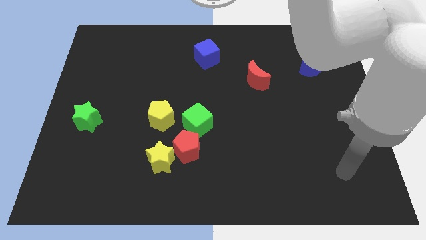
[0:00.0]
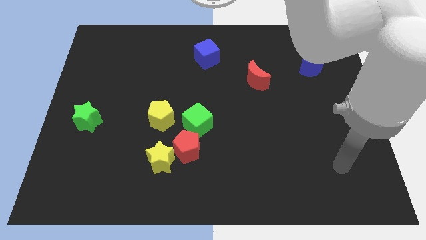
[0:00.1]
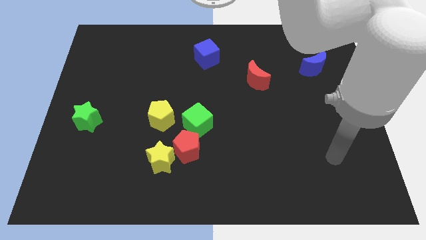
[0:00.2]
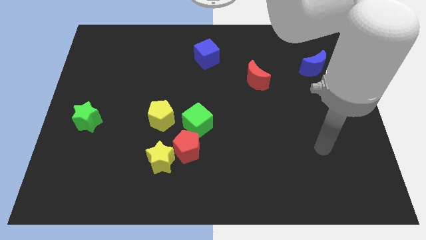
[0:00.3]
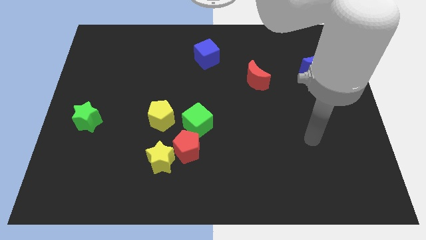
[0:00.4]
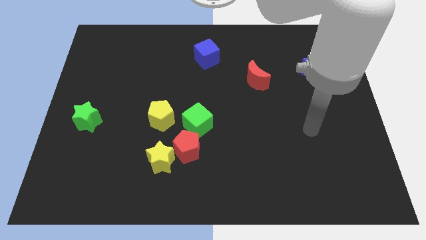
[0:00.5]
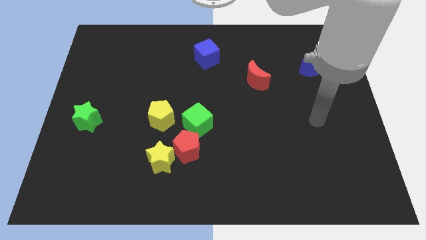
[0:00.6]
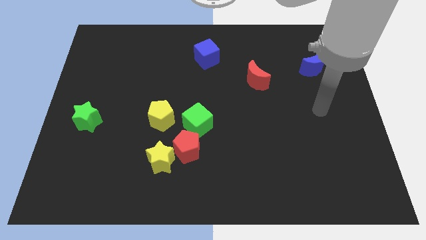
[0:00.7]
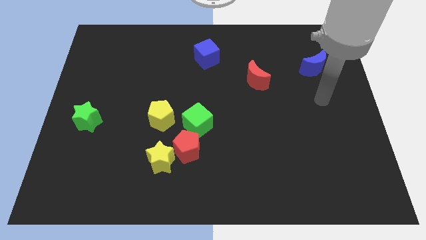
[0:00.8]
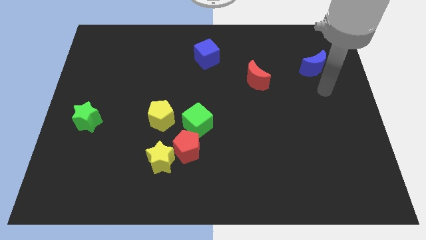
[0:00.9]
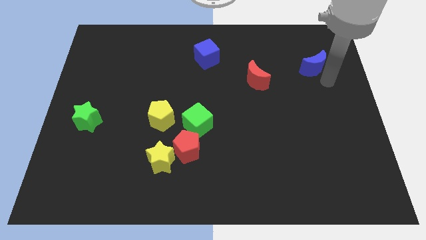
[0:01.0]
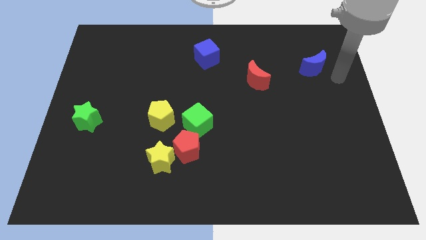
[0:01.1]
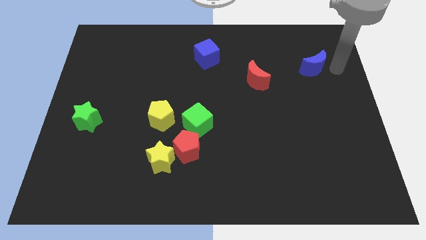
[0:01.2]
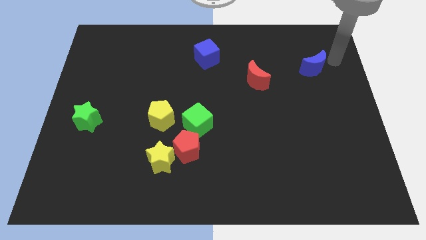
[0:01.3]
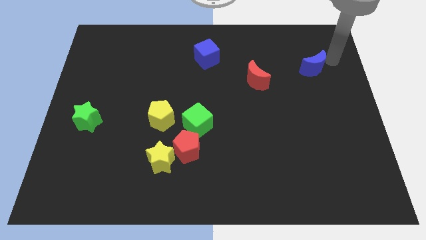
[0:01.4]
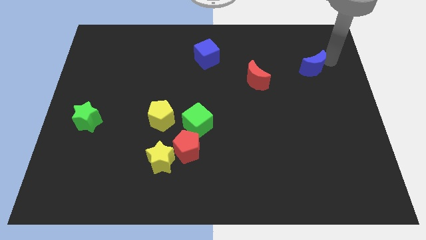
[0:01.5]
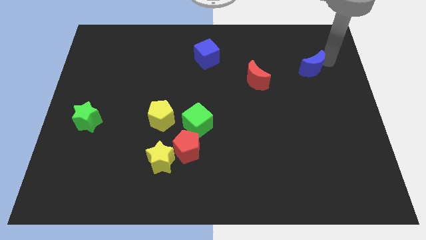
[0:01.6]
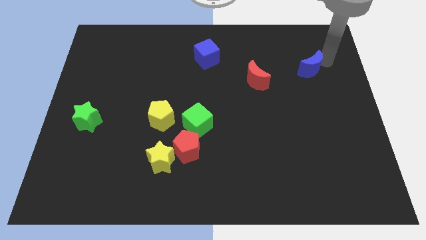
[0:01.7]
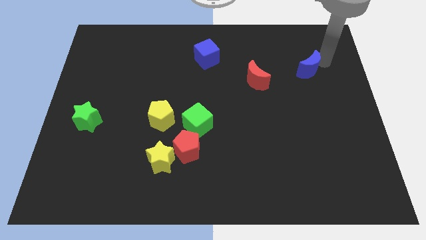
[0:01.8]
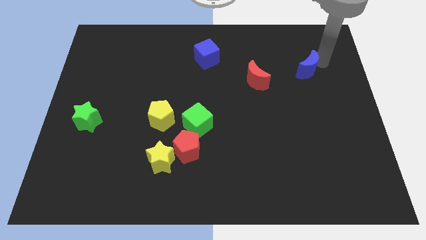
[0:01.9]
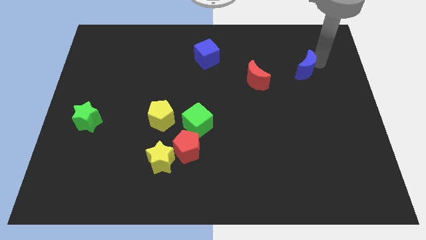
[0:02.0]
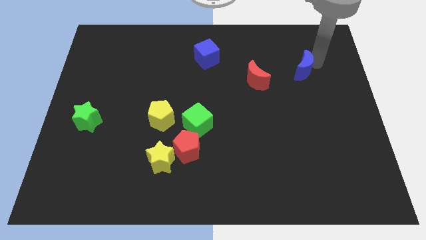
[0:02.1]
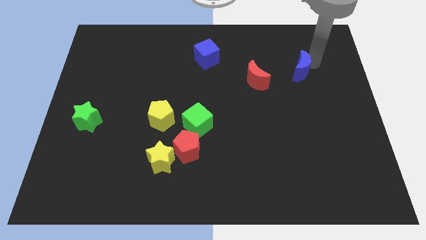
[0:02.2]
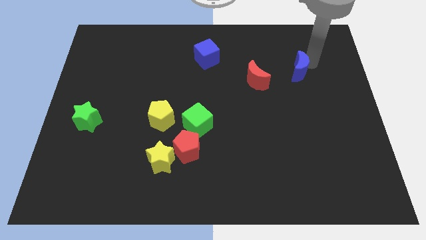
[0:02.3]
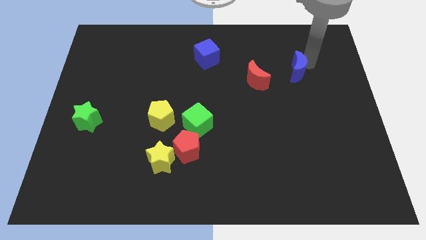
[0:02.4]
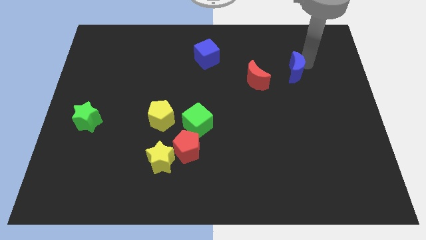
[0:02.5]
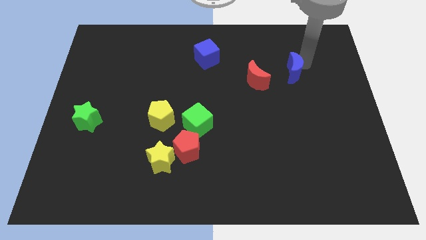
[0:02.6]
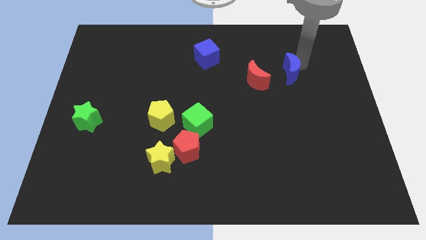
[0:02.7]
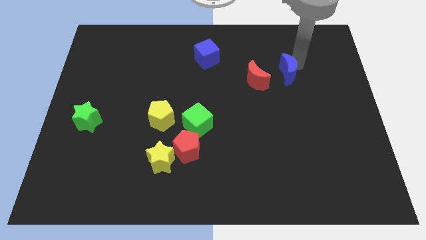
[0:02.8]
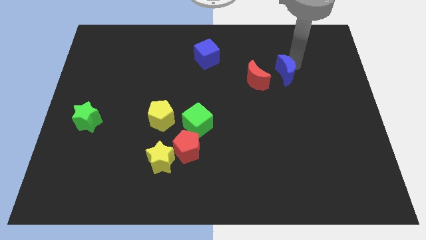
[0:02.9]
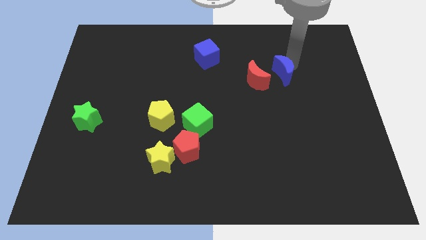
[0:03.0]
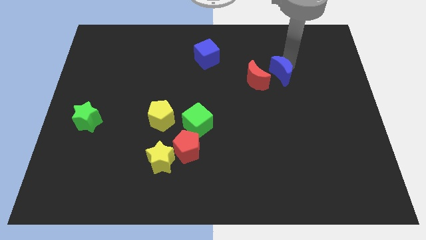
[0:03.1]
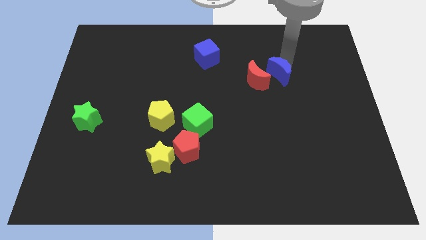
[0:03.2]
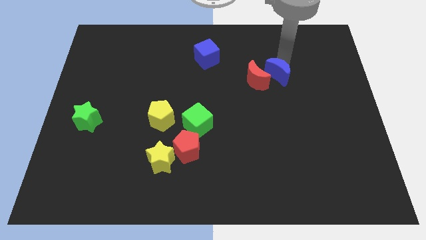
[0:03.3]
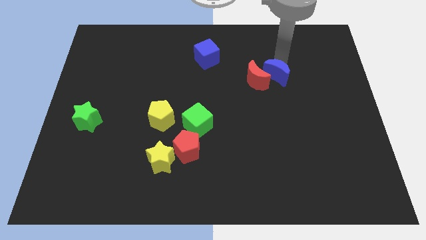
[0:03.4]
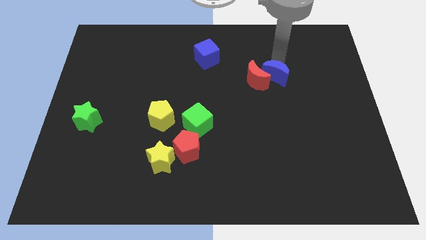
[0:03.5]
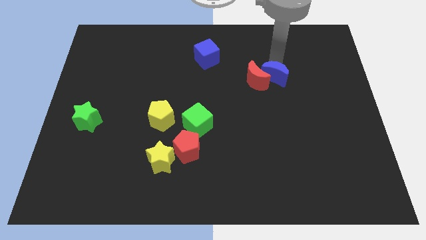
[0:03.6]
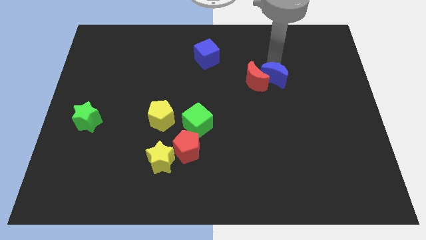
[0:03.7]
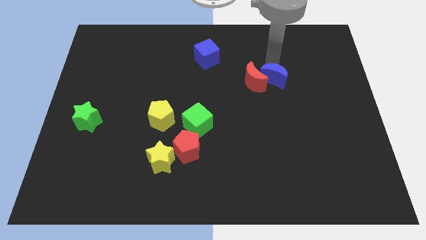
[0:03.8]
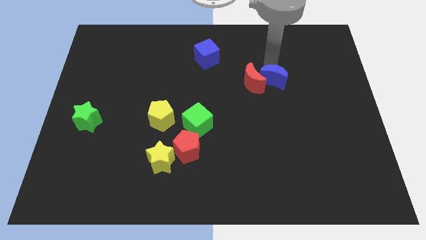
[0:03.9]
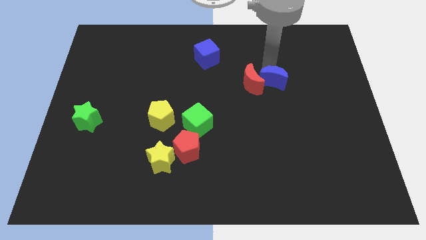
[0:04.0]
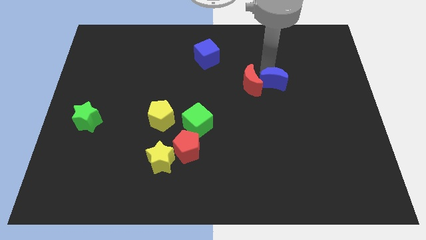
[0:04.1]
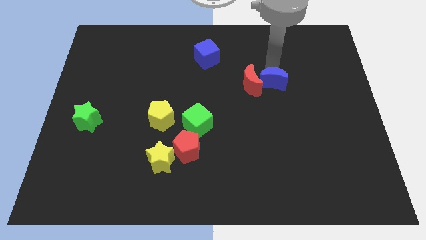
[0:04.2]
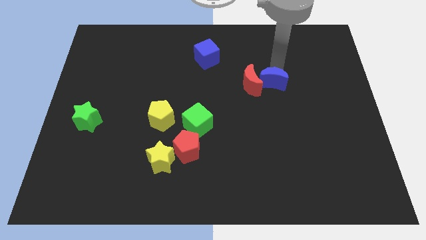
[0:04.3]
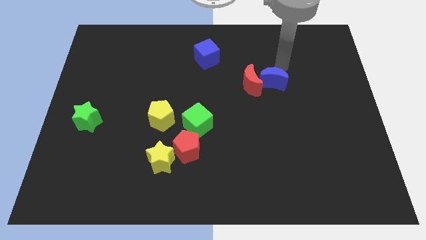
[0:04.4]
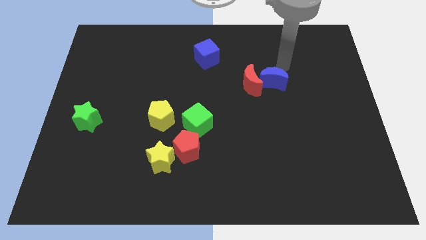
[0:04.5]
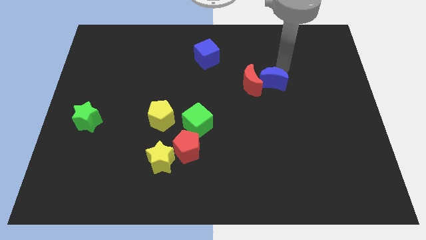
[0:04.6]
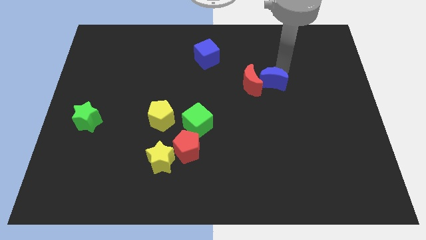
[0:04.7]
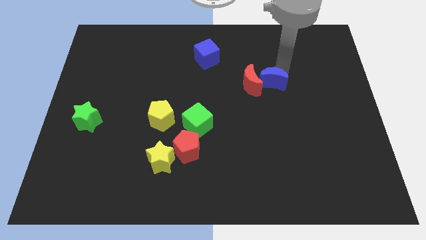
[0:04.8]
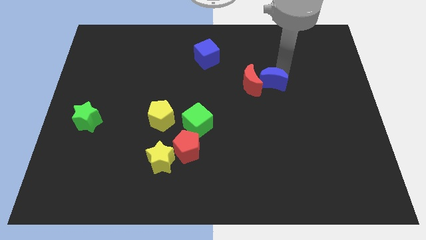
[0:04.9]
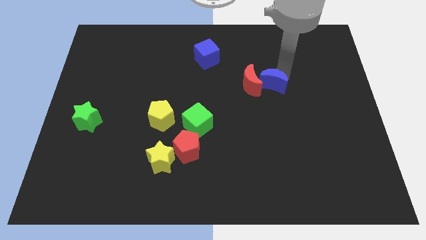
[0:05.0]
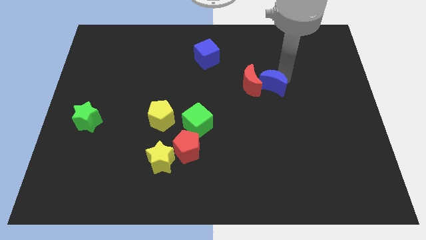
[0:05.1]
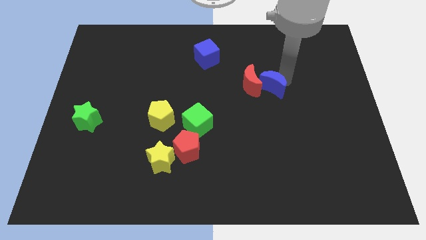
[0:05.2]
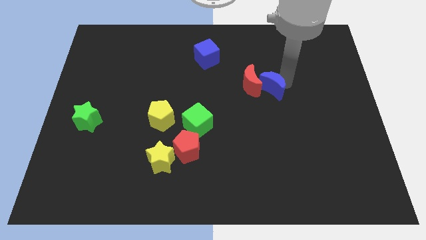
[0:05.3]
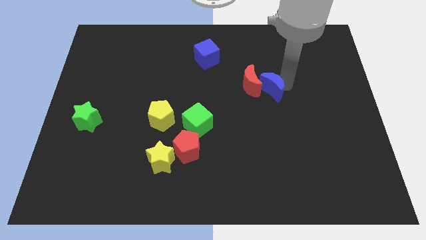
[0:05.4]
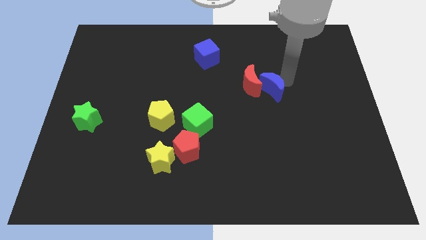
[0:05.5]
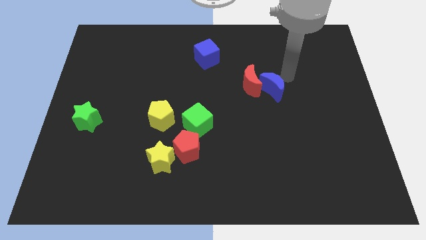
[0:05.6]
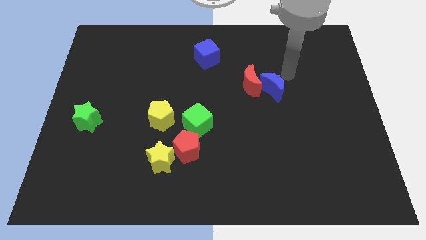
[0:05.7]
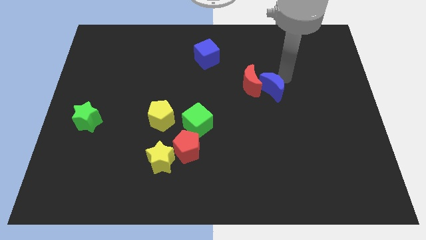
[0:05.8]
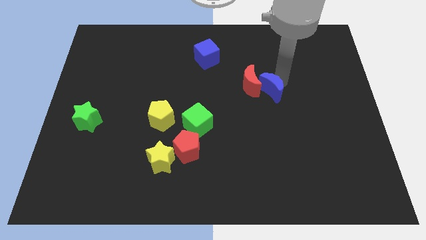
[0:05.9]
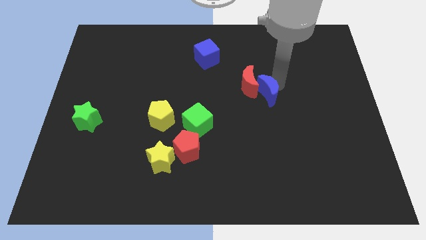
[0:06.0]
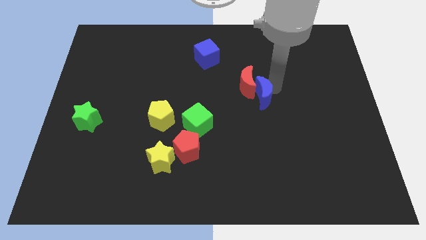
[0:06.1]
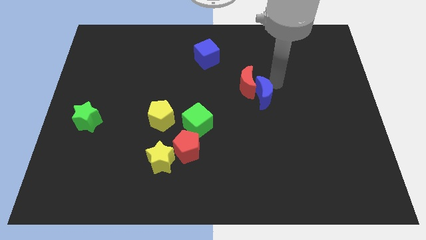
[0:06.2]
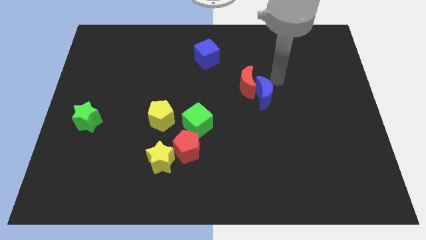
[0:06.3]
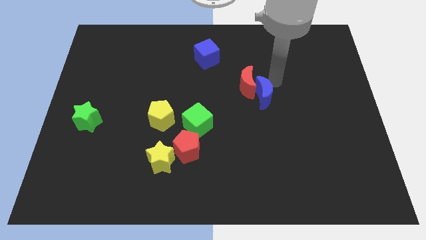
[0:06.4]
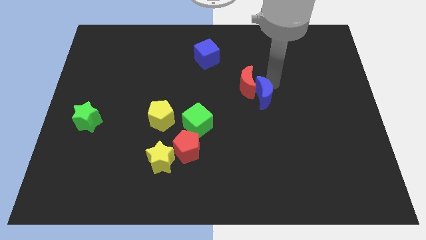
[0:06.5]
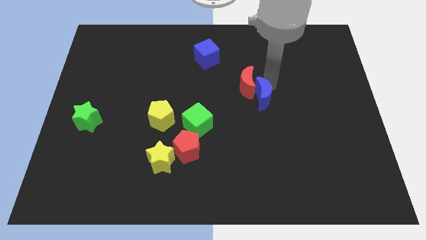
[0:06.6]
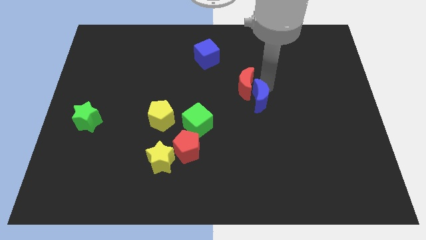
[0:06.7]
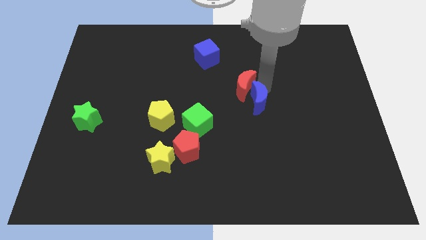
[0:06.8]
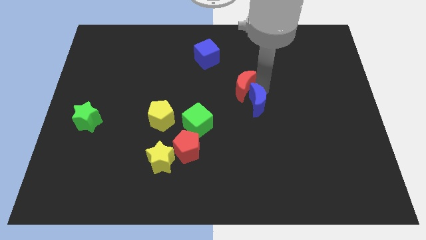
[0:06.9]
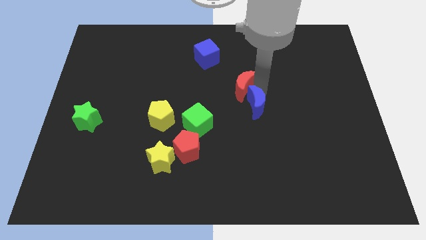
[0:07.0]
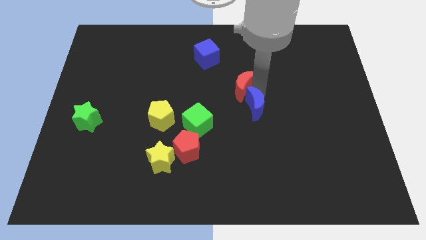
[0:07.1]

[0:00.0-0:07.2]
slide the blue moon down and then to the left

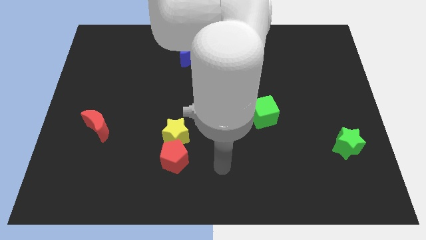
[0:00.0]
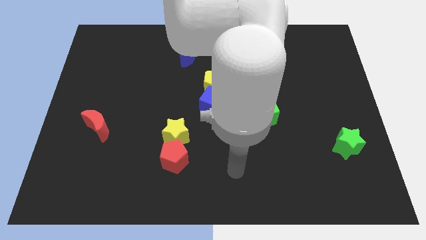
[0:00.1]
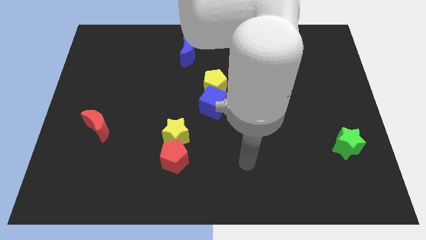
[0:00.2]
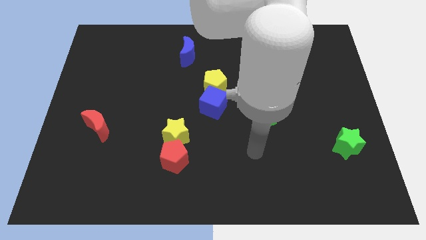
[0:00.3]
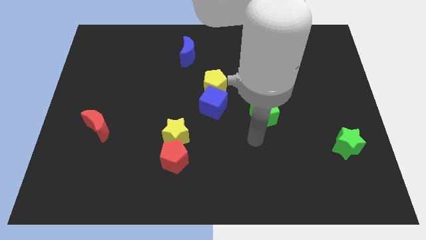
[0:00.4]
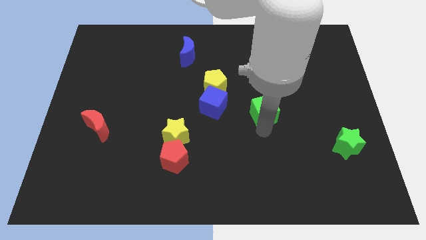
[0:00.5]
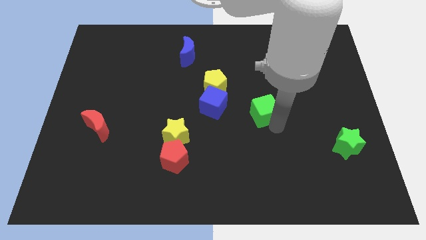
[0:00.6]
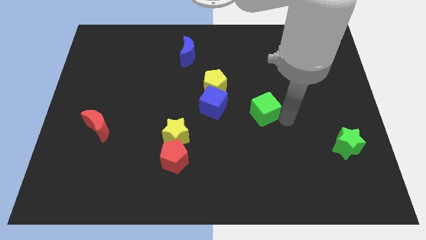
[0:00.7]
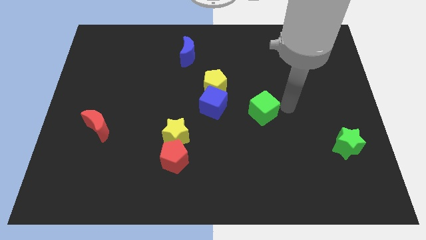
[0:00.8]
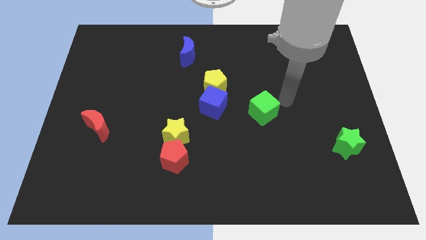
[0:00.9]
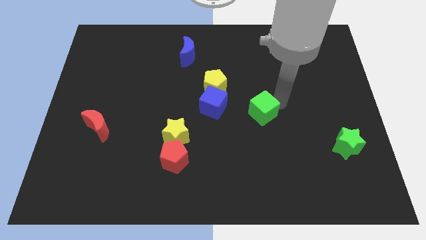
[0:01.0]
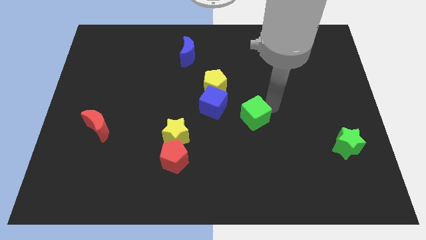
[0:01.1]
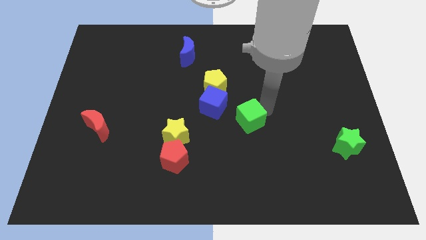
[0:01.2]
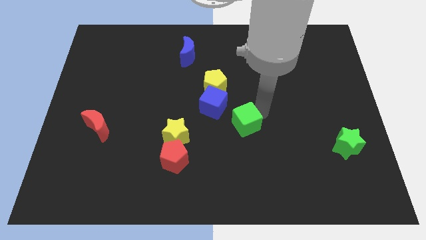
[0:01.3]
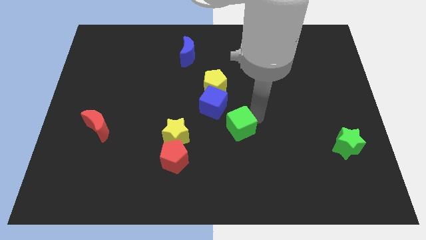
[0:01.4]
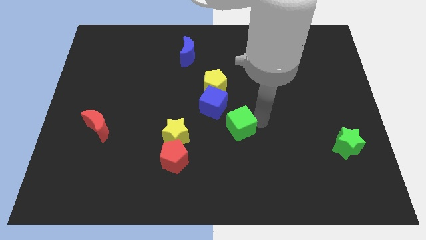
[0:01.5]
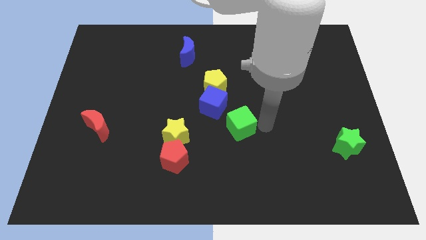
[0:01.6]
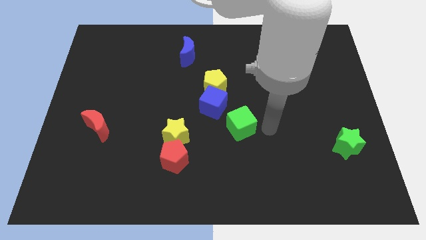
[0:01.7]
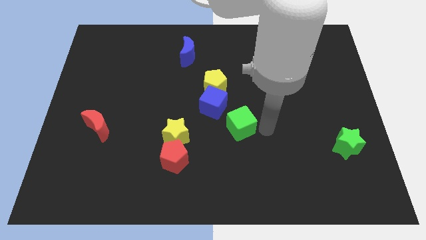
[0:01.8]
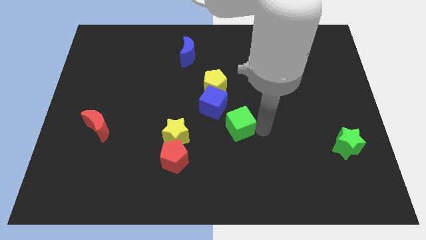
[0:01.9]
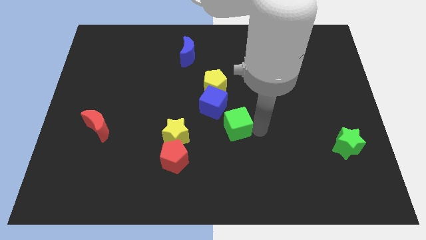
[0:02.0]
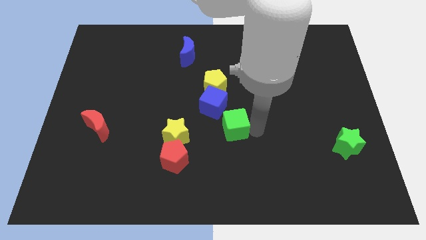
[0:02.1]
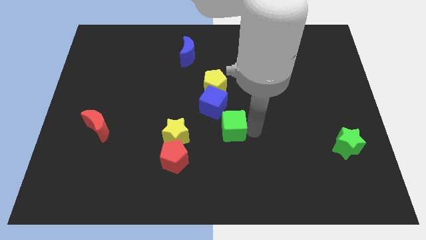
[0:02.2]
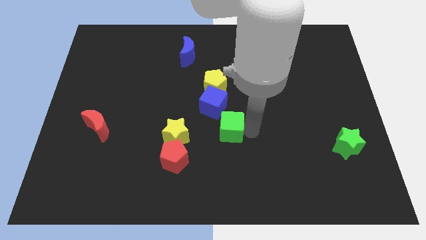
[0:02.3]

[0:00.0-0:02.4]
push the green cube a little bit to the left
